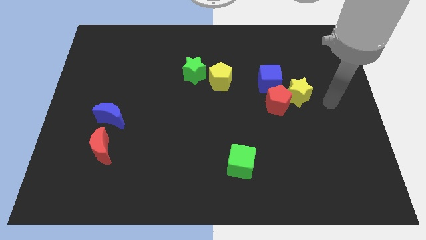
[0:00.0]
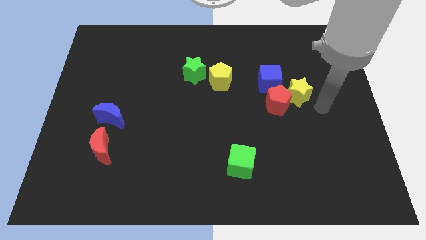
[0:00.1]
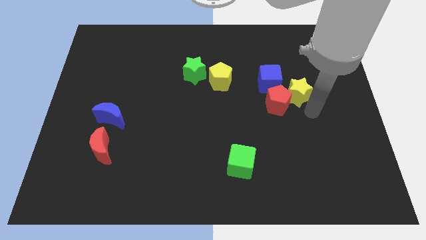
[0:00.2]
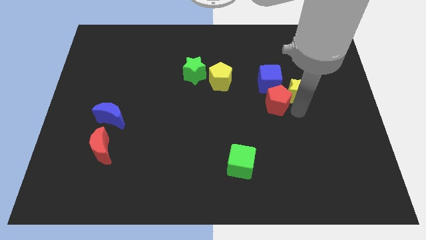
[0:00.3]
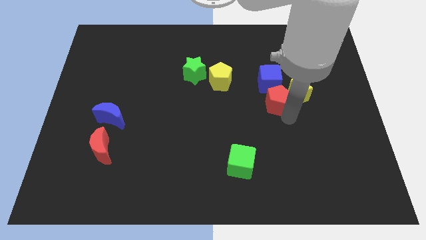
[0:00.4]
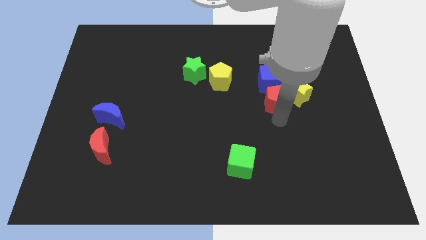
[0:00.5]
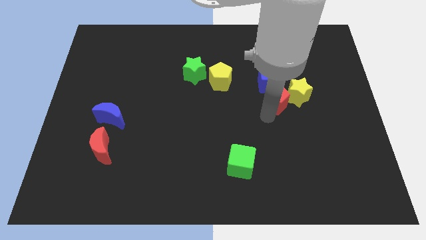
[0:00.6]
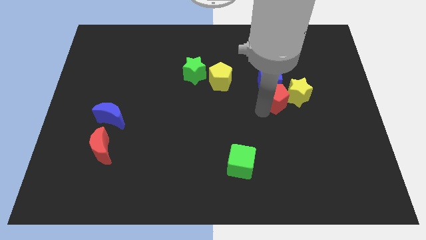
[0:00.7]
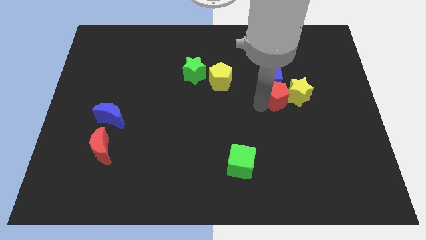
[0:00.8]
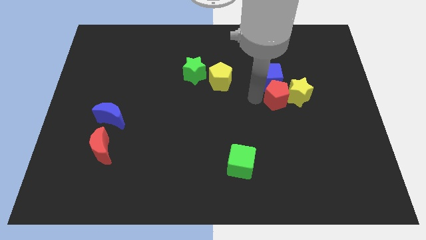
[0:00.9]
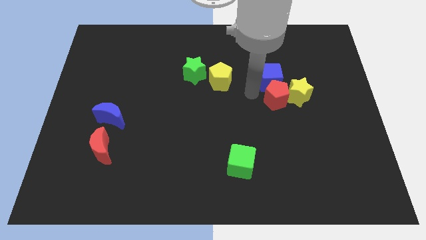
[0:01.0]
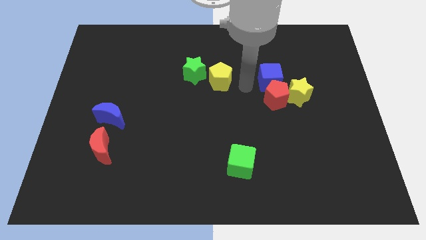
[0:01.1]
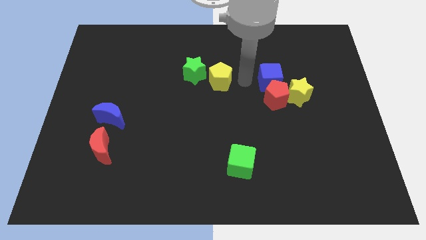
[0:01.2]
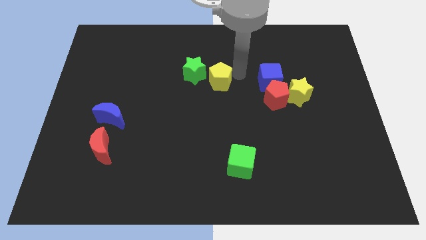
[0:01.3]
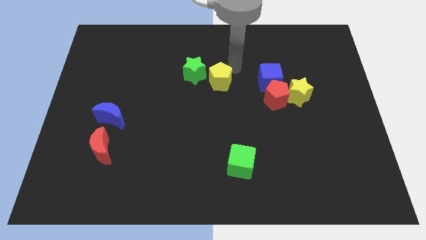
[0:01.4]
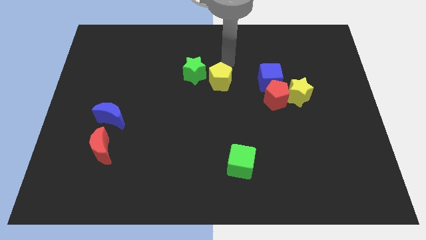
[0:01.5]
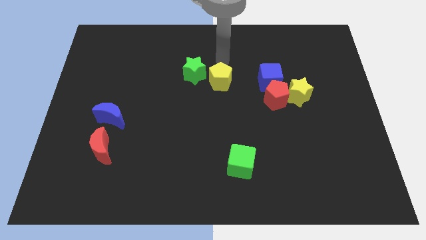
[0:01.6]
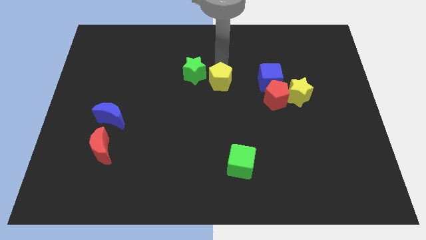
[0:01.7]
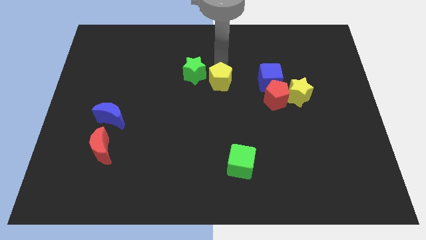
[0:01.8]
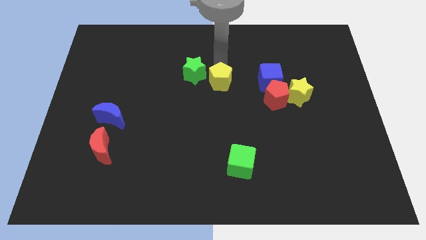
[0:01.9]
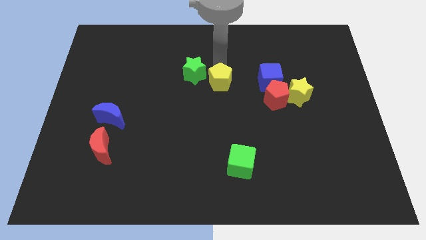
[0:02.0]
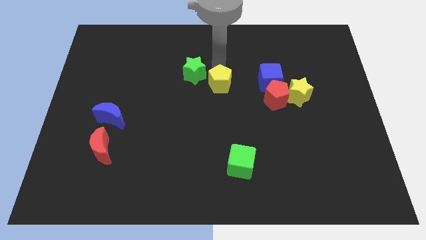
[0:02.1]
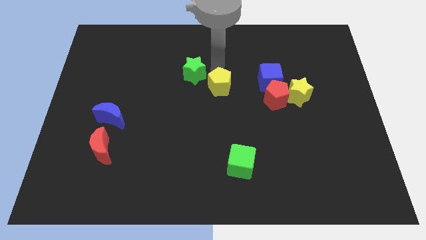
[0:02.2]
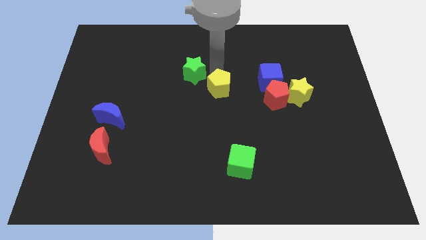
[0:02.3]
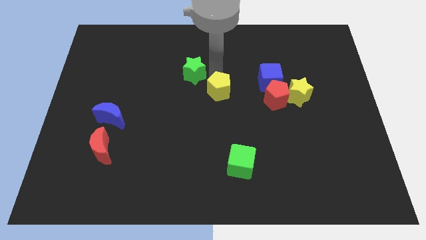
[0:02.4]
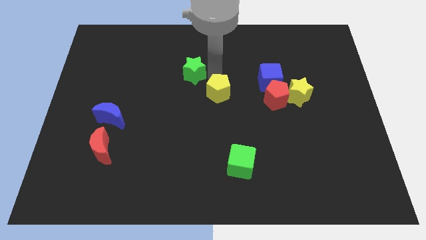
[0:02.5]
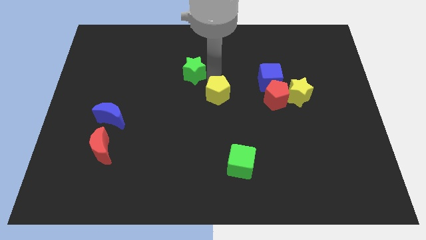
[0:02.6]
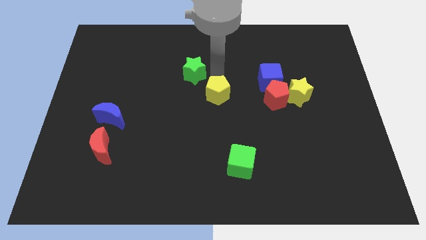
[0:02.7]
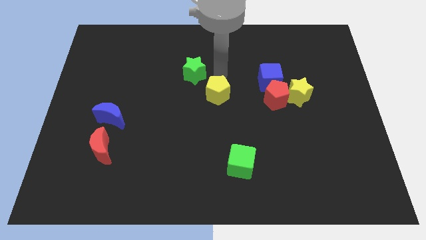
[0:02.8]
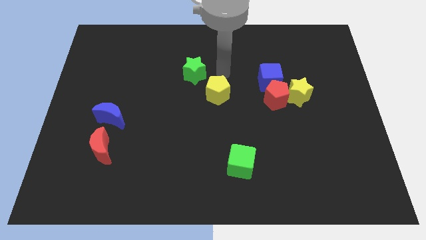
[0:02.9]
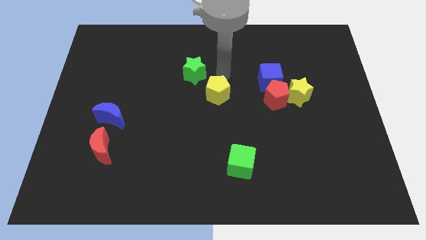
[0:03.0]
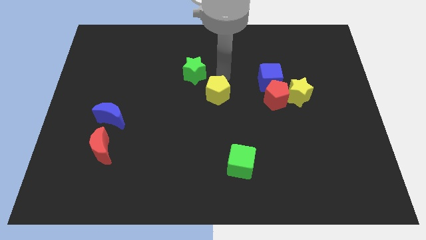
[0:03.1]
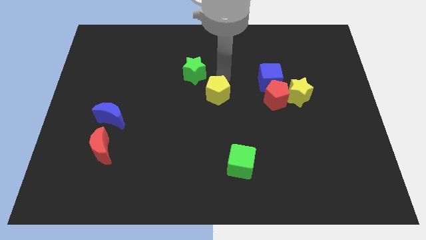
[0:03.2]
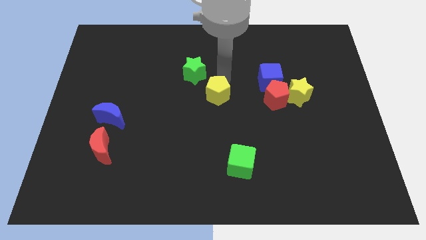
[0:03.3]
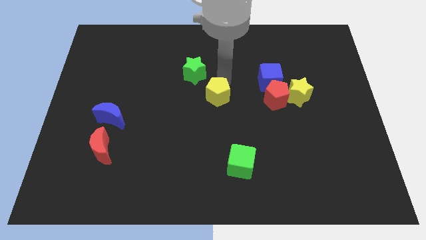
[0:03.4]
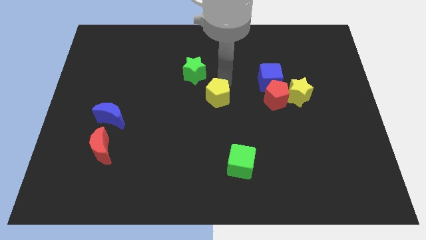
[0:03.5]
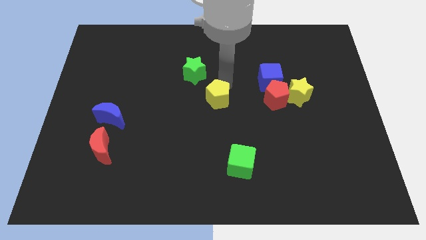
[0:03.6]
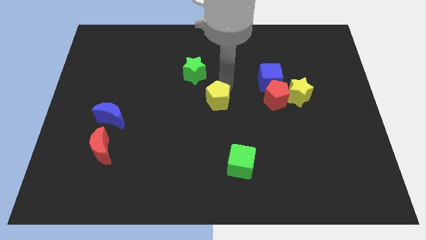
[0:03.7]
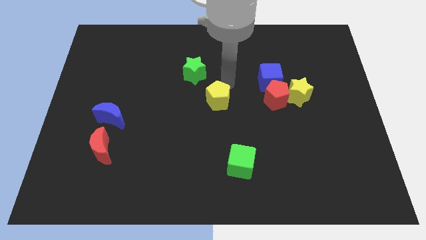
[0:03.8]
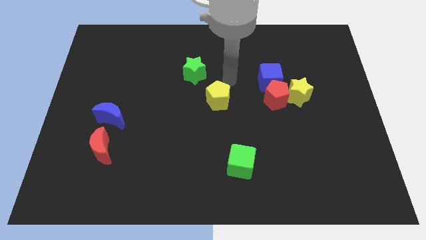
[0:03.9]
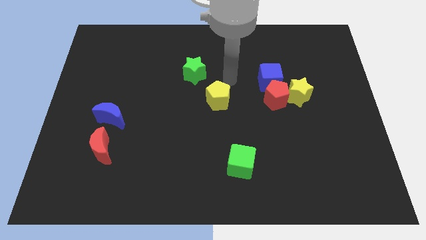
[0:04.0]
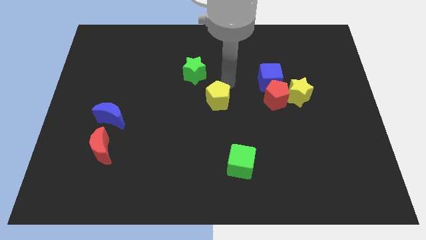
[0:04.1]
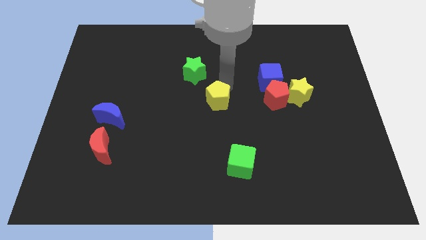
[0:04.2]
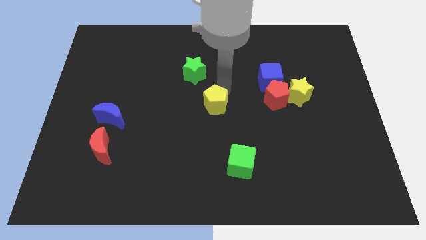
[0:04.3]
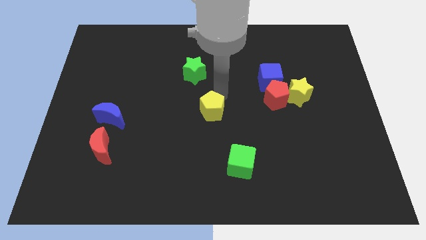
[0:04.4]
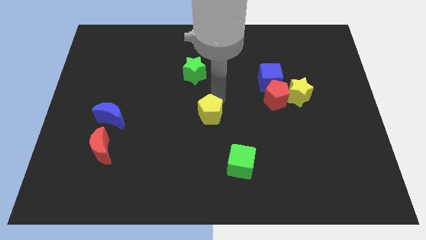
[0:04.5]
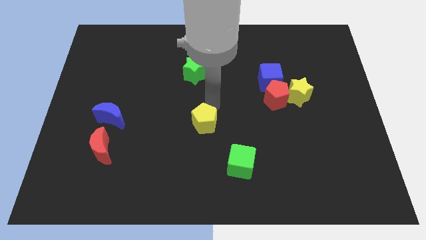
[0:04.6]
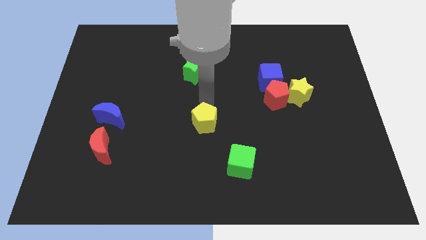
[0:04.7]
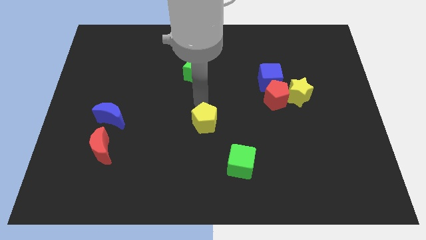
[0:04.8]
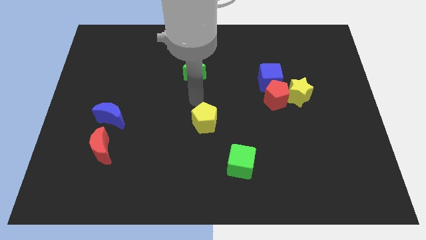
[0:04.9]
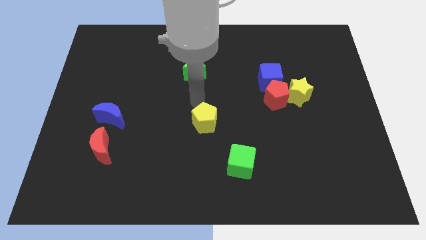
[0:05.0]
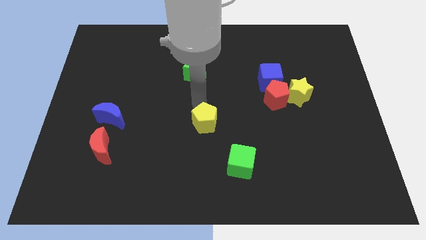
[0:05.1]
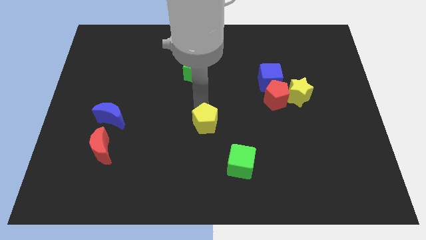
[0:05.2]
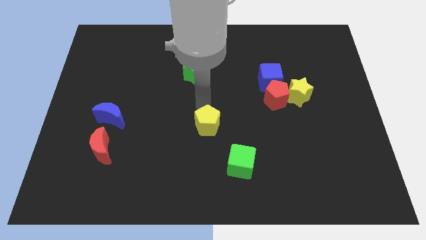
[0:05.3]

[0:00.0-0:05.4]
move the yellow pentagon diagonally up and to the left of the green cube

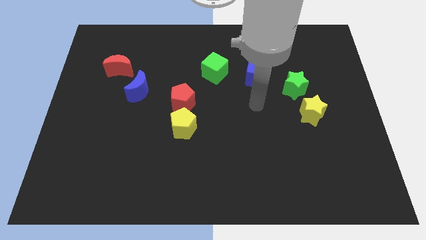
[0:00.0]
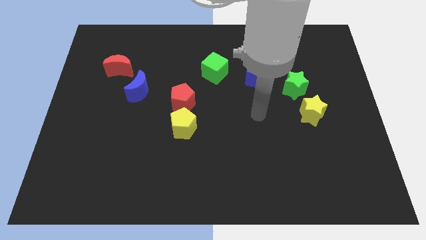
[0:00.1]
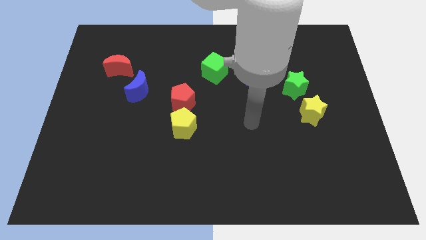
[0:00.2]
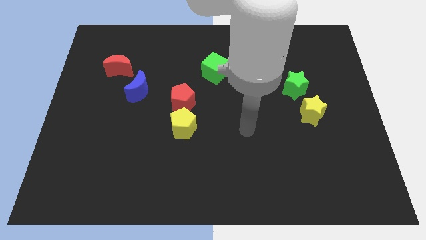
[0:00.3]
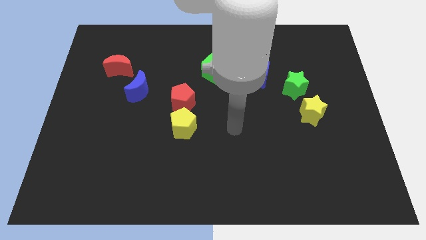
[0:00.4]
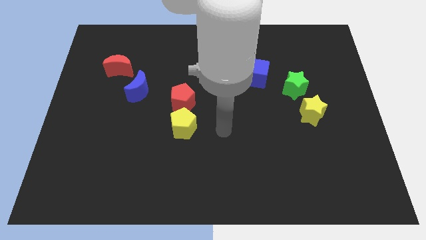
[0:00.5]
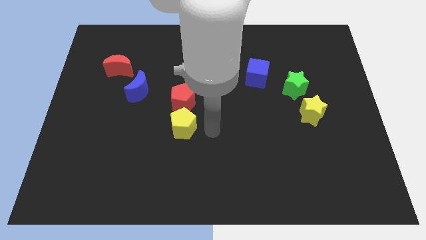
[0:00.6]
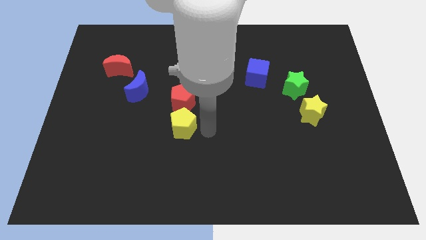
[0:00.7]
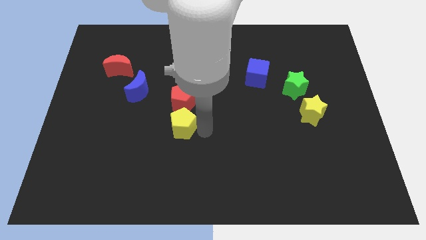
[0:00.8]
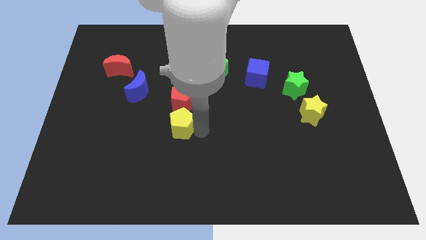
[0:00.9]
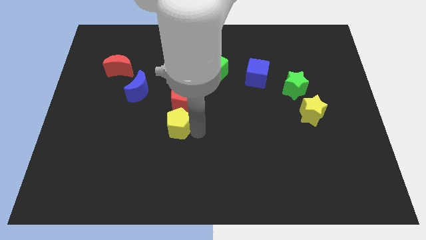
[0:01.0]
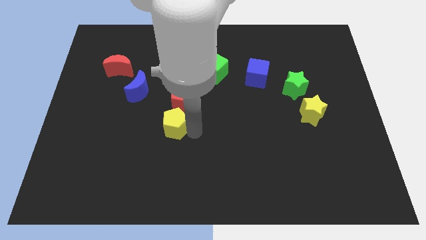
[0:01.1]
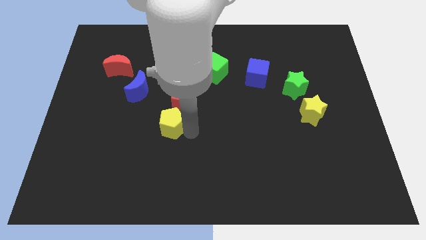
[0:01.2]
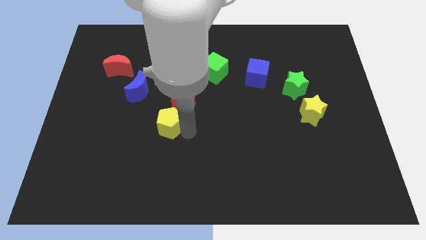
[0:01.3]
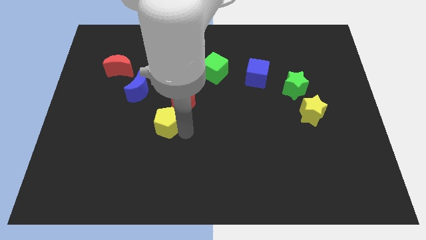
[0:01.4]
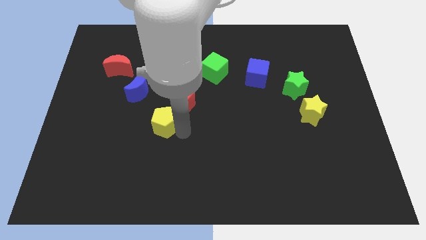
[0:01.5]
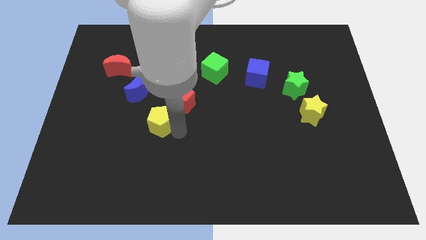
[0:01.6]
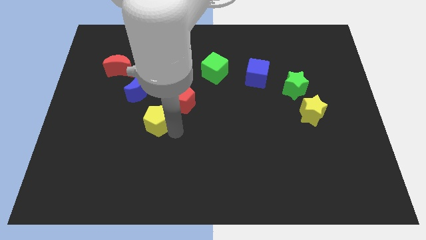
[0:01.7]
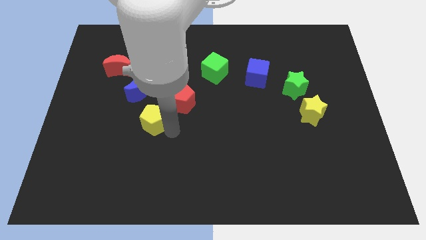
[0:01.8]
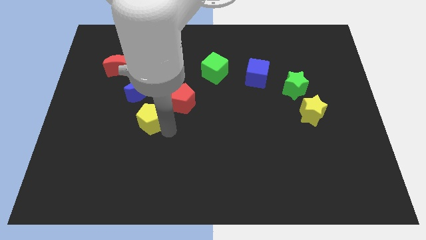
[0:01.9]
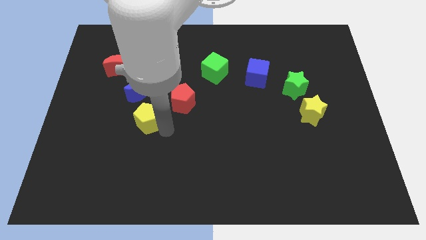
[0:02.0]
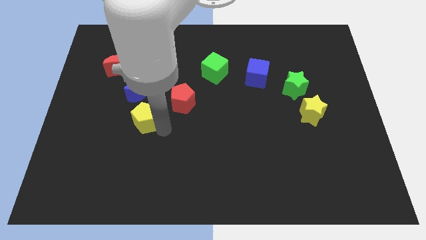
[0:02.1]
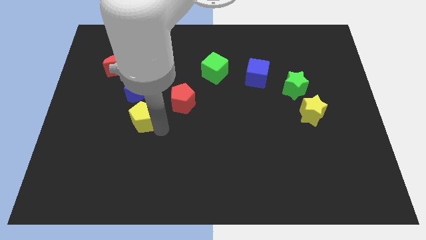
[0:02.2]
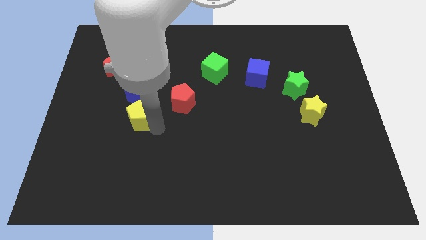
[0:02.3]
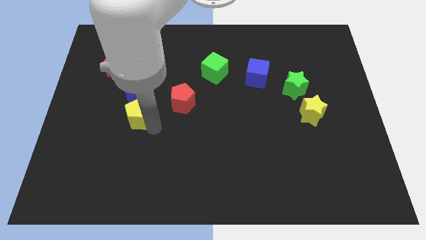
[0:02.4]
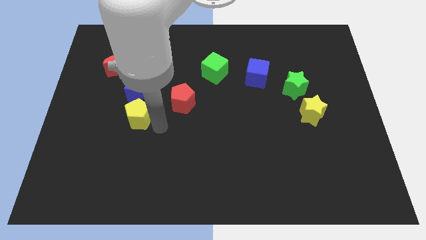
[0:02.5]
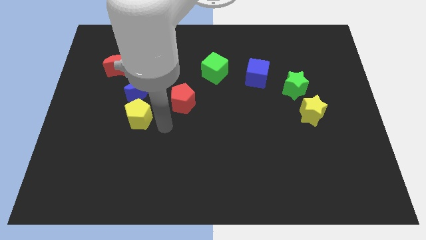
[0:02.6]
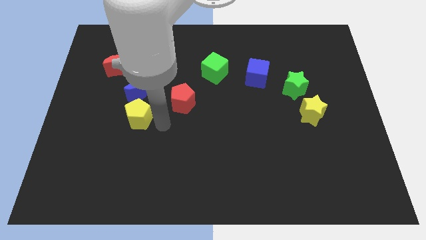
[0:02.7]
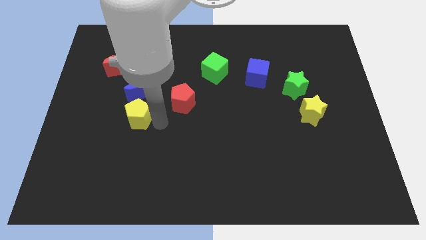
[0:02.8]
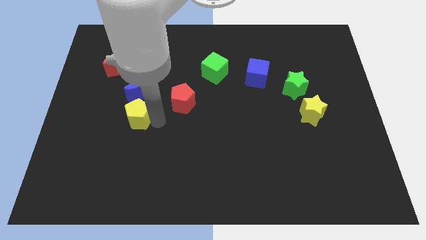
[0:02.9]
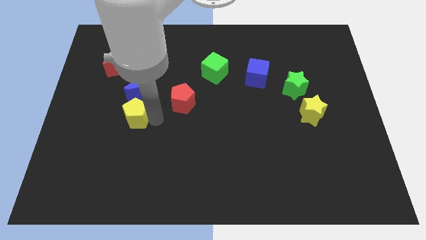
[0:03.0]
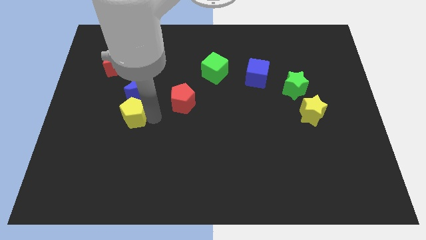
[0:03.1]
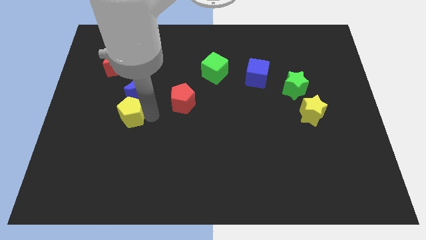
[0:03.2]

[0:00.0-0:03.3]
move the yellow pentagon diagonally down and to the left of the blue moon
